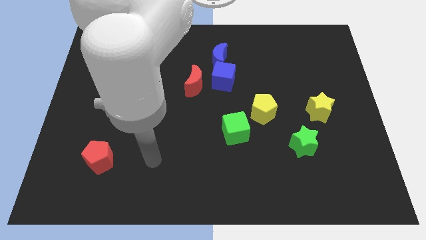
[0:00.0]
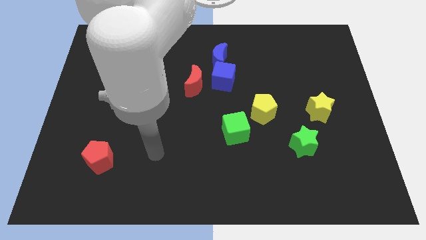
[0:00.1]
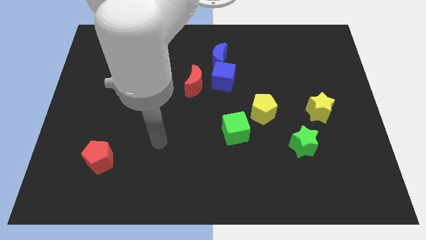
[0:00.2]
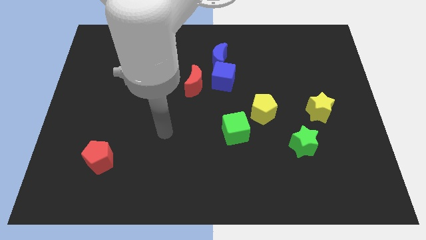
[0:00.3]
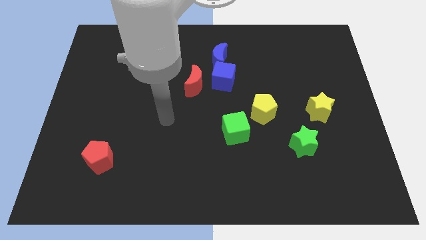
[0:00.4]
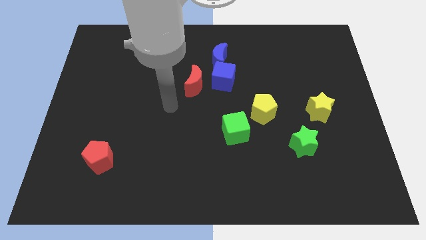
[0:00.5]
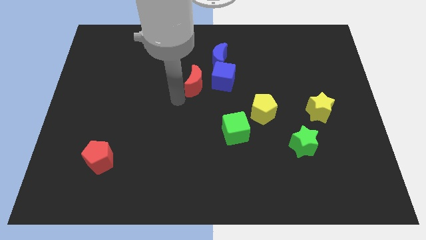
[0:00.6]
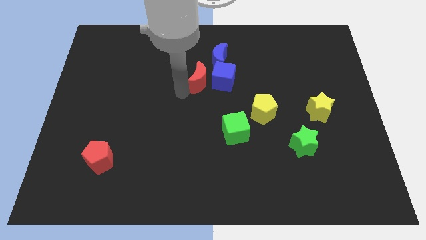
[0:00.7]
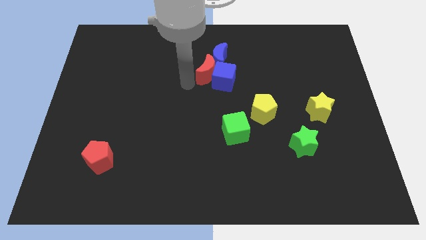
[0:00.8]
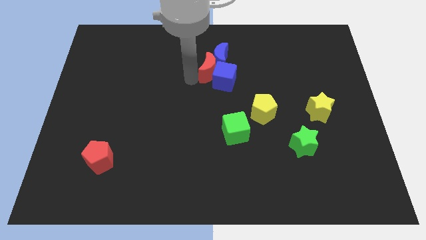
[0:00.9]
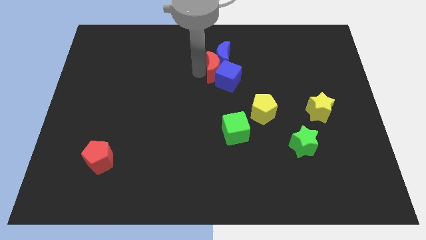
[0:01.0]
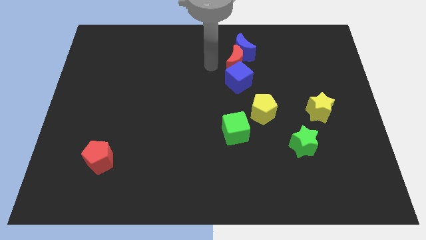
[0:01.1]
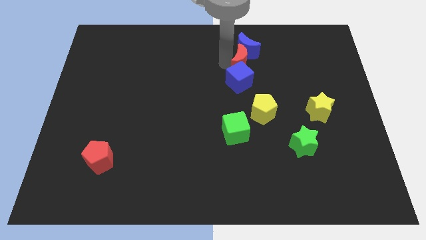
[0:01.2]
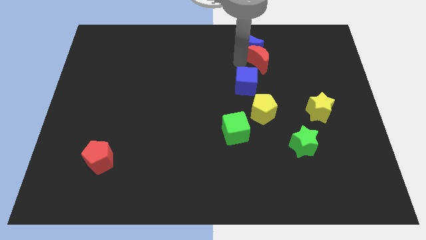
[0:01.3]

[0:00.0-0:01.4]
pull the blue cube apart from the blue moon and red moon

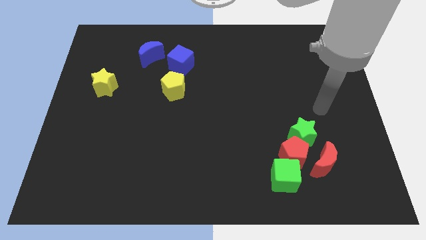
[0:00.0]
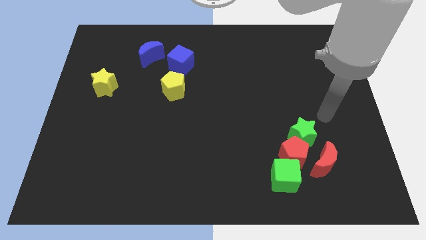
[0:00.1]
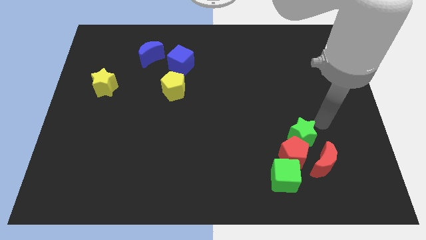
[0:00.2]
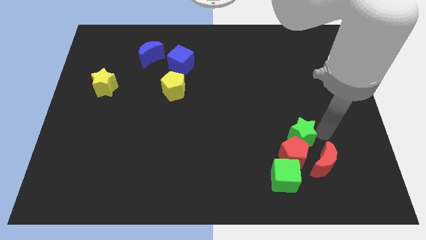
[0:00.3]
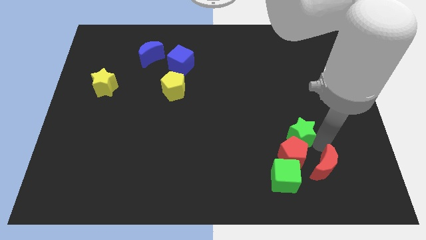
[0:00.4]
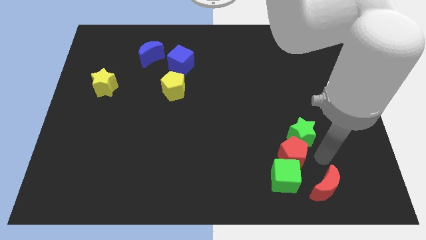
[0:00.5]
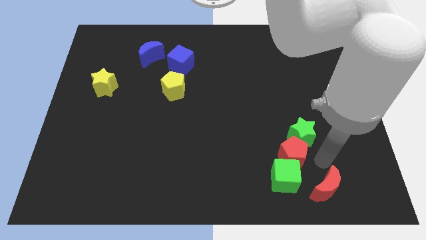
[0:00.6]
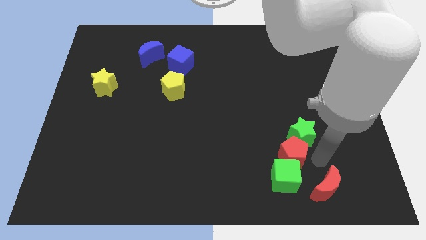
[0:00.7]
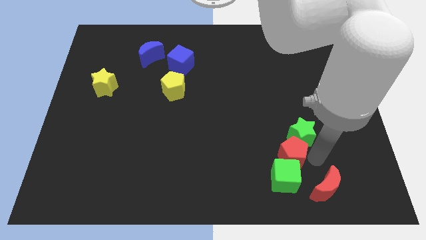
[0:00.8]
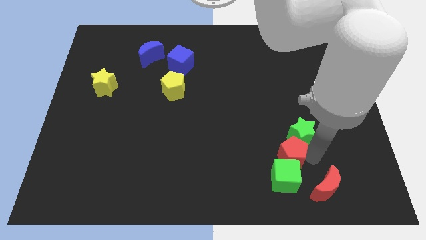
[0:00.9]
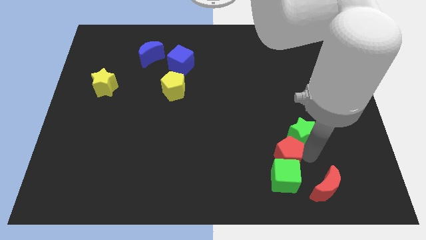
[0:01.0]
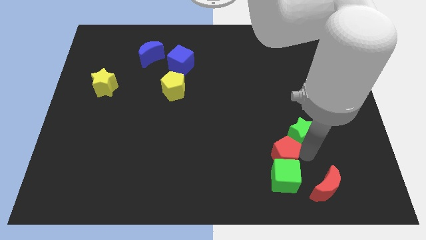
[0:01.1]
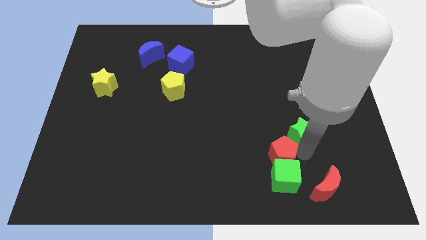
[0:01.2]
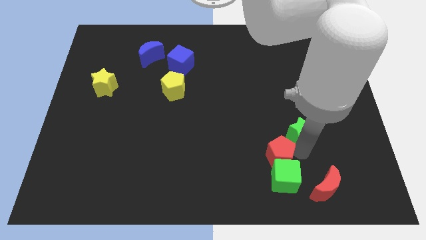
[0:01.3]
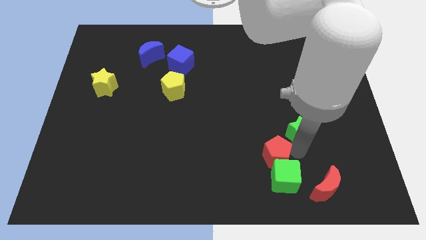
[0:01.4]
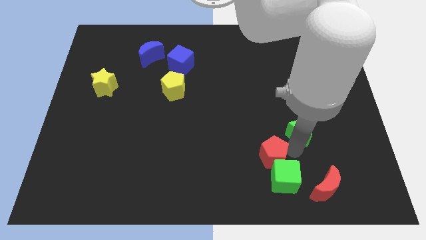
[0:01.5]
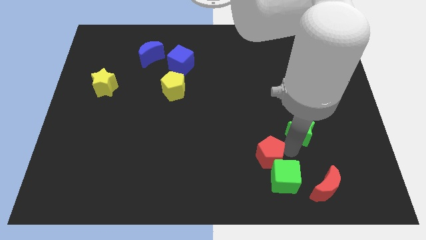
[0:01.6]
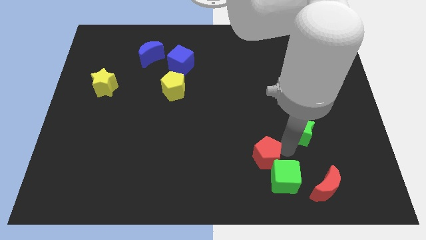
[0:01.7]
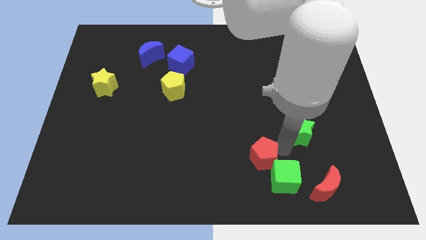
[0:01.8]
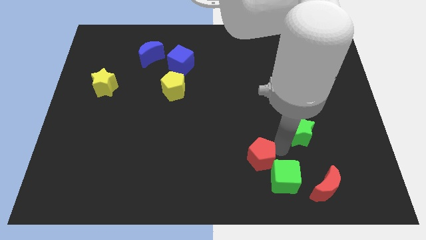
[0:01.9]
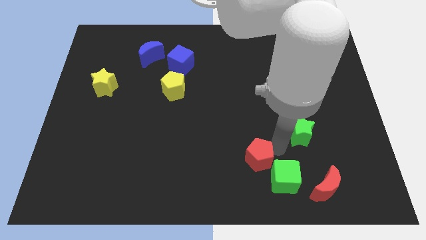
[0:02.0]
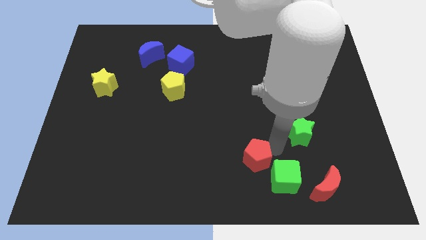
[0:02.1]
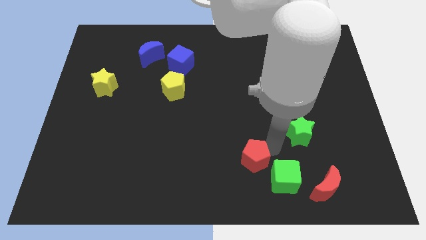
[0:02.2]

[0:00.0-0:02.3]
separate the red pentagon from the green star, green cube, and red moon

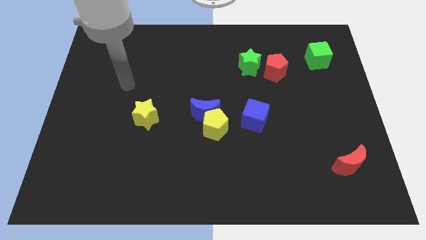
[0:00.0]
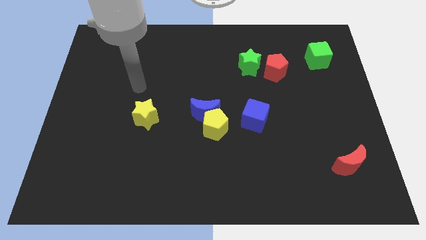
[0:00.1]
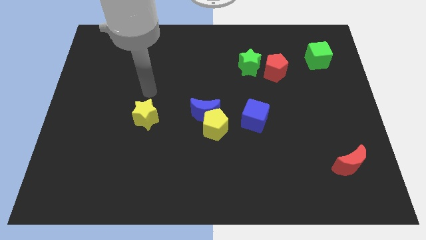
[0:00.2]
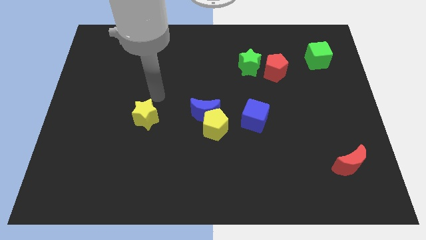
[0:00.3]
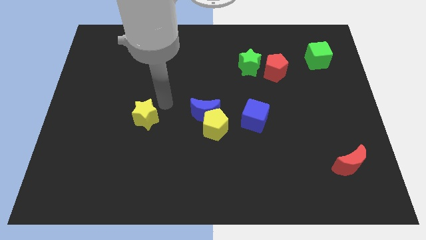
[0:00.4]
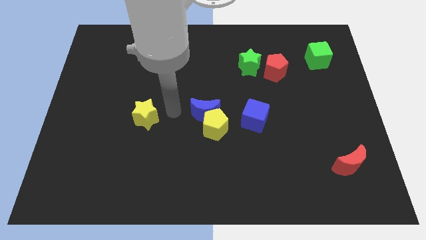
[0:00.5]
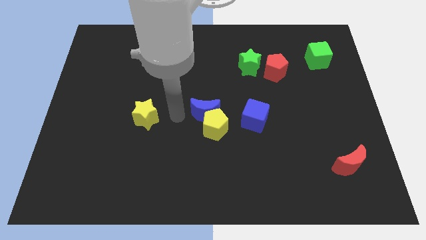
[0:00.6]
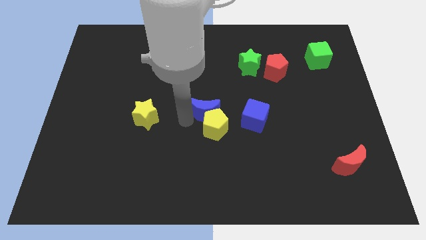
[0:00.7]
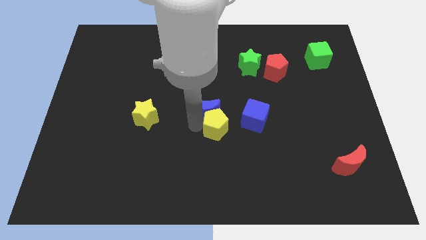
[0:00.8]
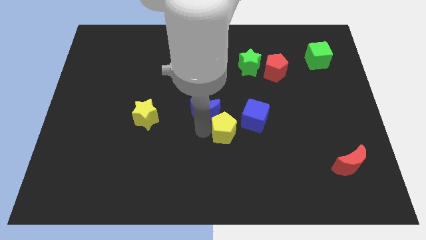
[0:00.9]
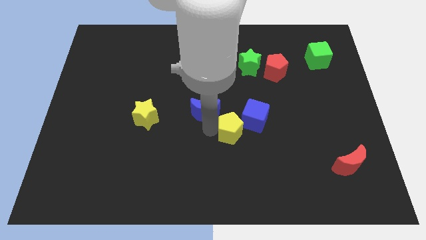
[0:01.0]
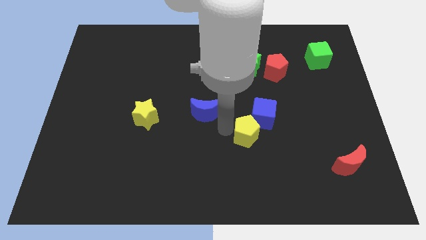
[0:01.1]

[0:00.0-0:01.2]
separate the blue moon from the yellow pentagon

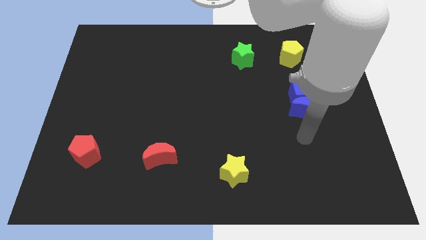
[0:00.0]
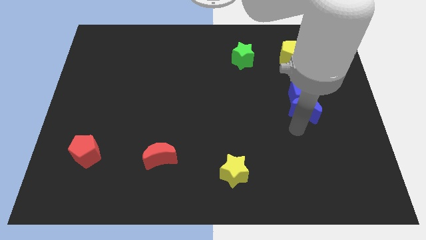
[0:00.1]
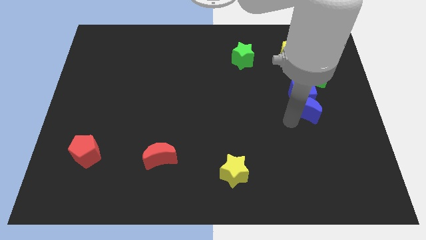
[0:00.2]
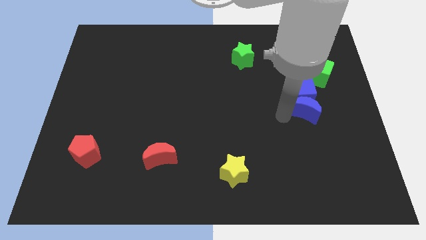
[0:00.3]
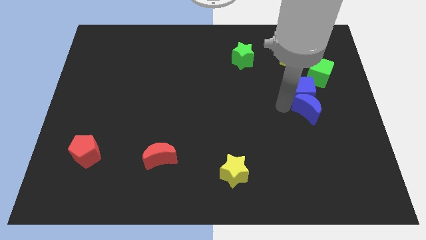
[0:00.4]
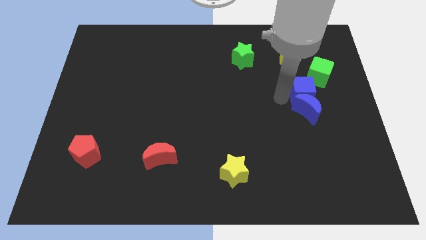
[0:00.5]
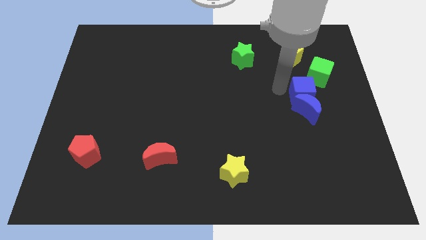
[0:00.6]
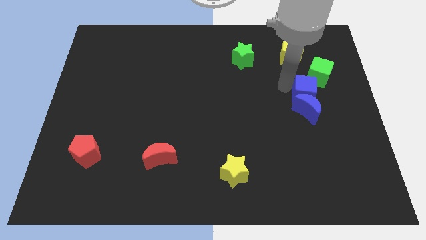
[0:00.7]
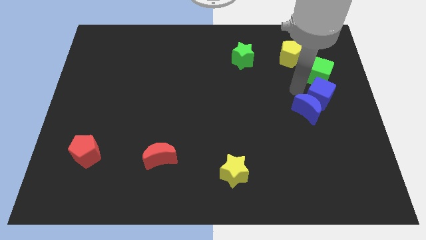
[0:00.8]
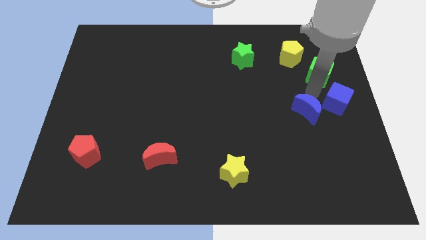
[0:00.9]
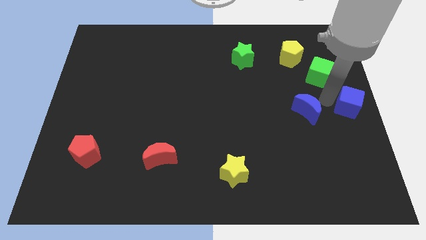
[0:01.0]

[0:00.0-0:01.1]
separate the blue moon from the blue cube

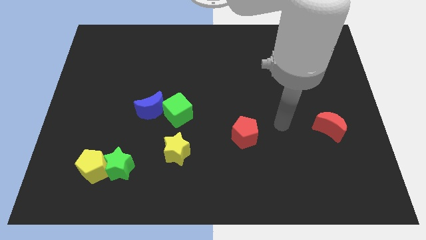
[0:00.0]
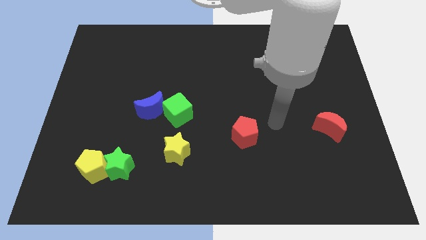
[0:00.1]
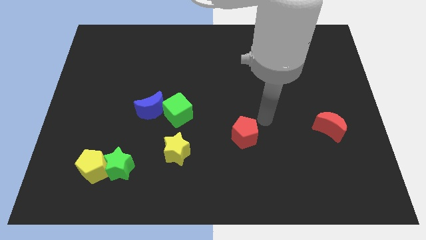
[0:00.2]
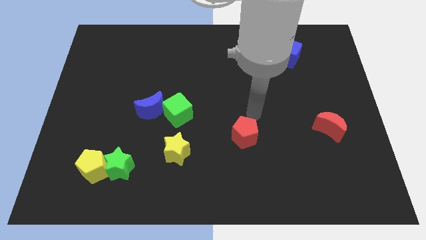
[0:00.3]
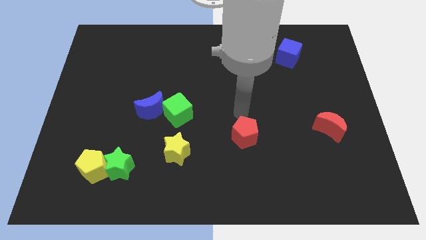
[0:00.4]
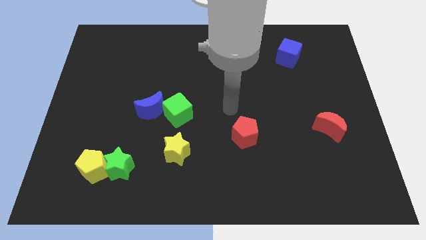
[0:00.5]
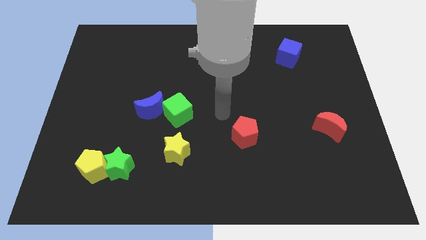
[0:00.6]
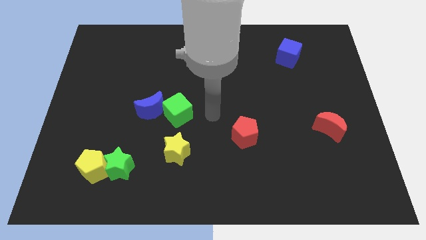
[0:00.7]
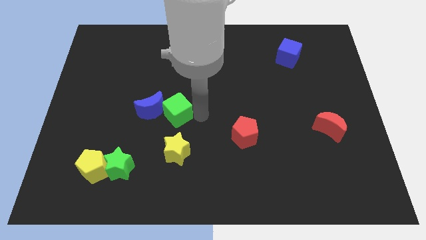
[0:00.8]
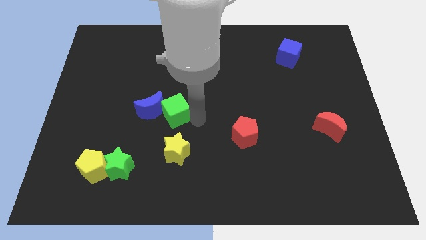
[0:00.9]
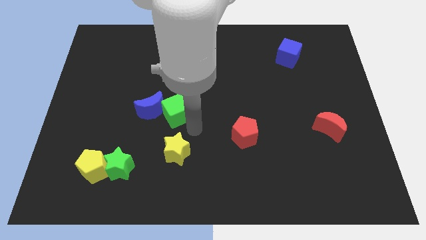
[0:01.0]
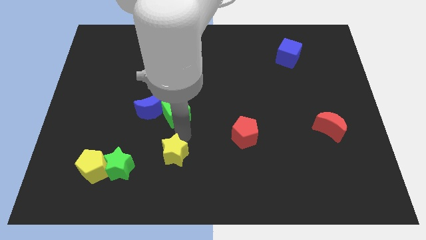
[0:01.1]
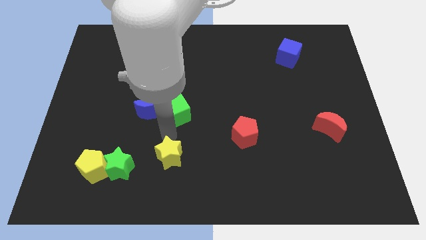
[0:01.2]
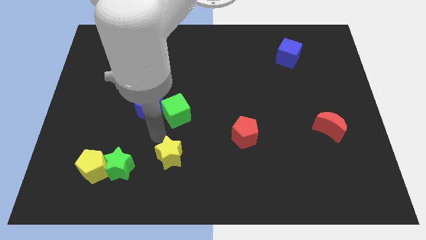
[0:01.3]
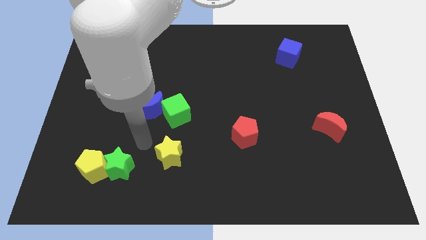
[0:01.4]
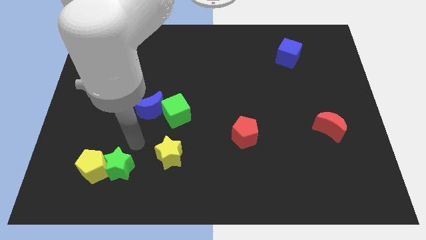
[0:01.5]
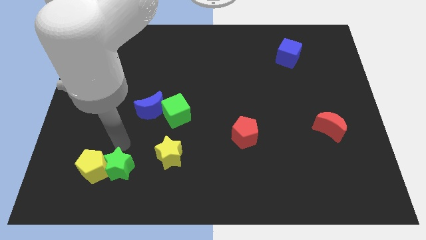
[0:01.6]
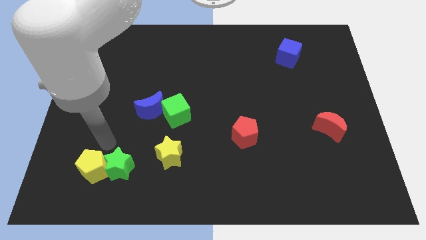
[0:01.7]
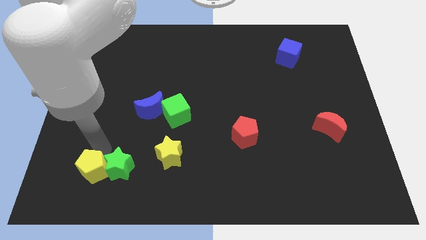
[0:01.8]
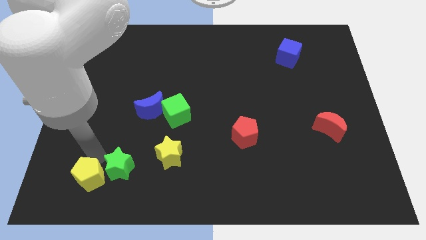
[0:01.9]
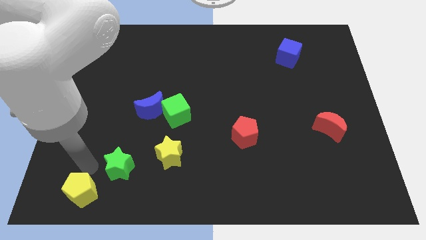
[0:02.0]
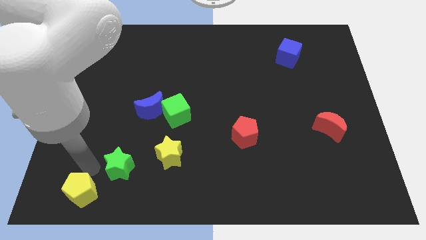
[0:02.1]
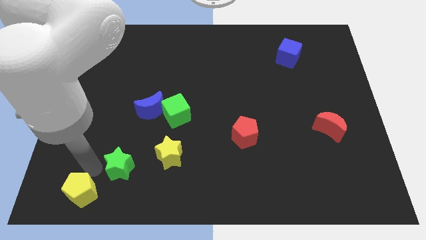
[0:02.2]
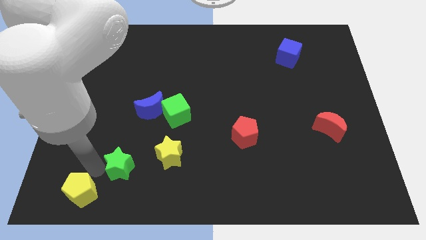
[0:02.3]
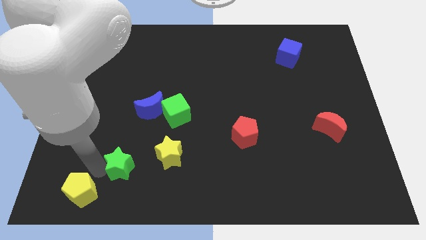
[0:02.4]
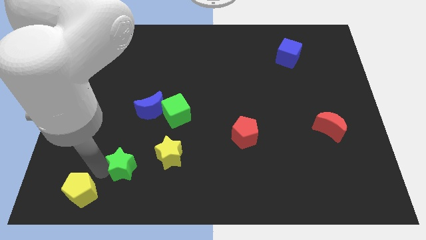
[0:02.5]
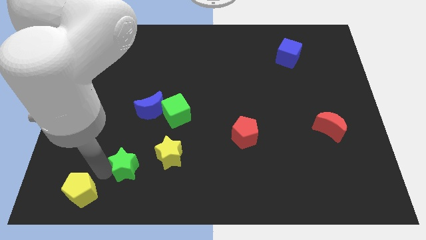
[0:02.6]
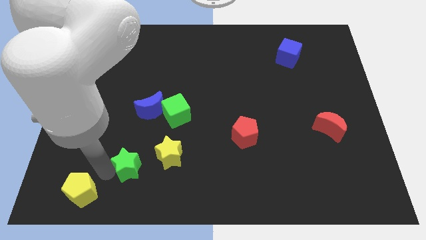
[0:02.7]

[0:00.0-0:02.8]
move the green star away from the yellow pentagon

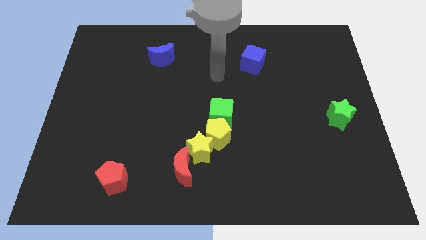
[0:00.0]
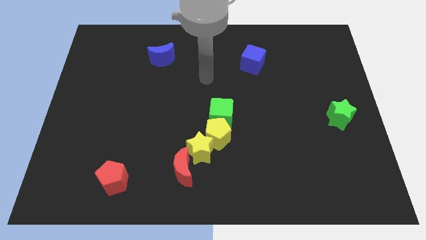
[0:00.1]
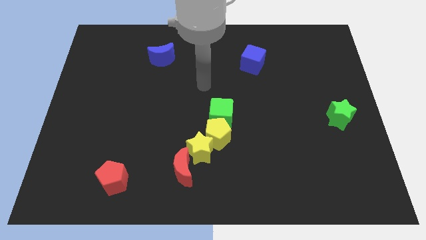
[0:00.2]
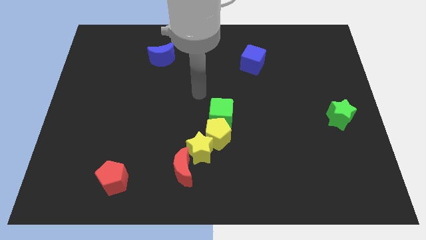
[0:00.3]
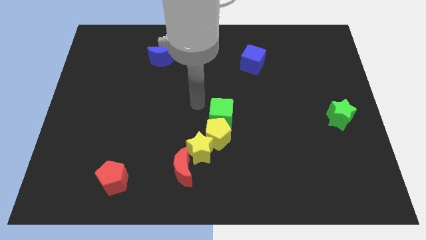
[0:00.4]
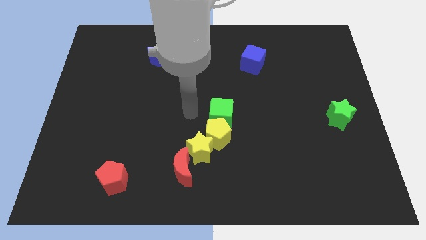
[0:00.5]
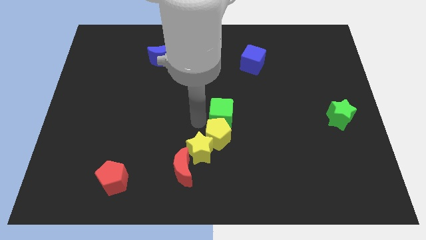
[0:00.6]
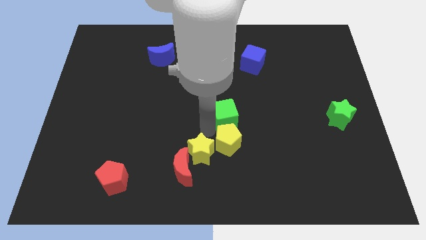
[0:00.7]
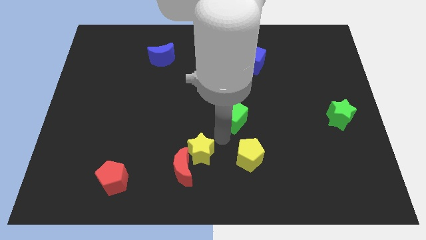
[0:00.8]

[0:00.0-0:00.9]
separate the green cube from the yellow pentagon
